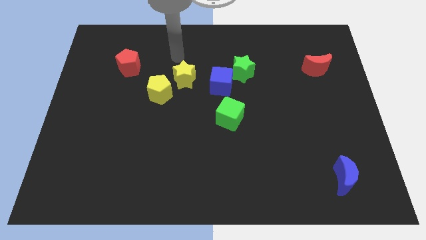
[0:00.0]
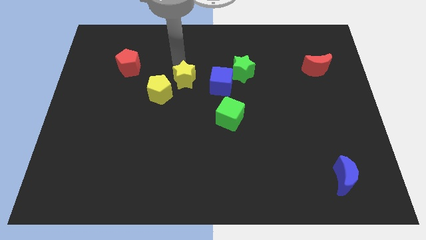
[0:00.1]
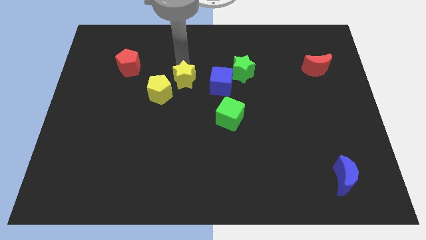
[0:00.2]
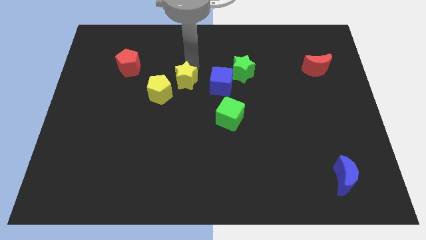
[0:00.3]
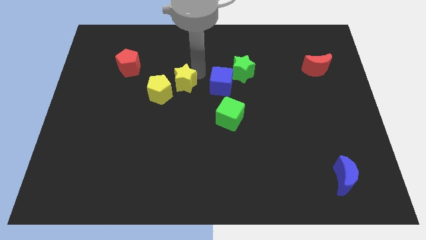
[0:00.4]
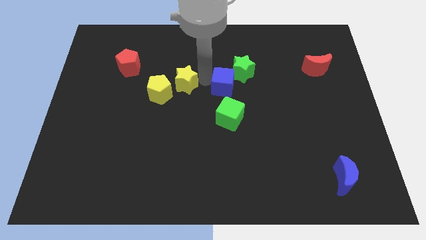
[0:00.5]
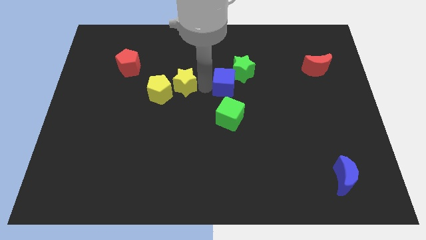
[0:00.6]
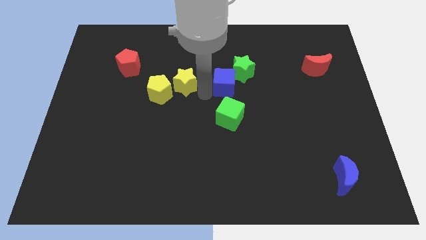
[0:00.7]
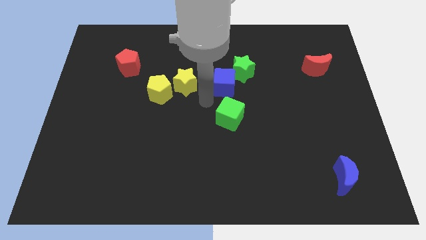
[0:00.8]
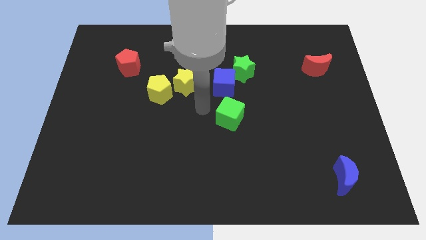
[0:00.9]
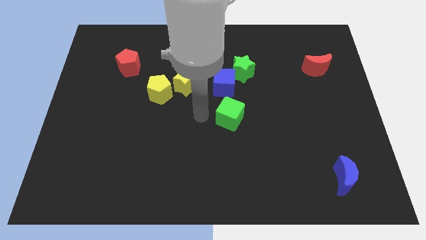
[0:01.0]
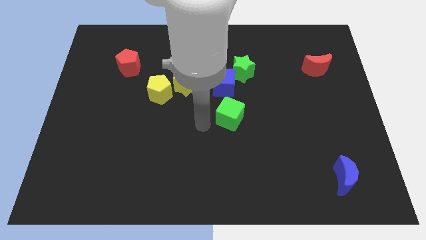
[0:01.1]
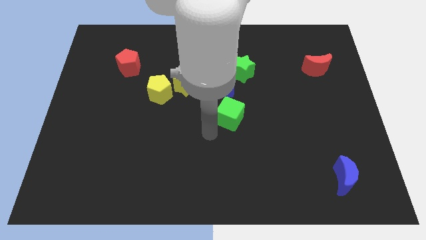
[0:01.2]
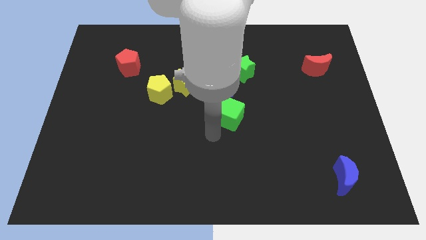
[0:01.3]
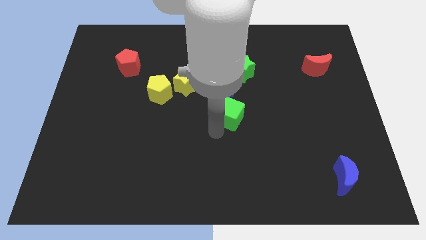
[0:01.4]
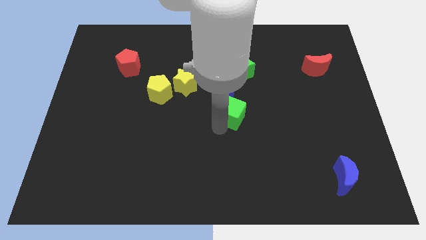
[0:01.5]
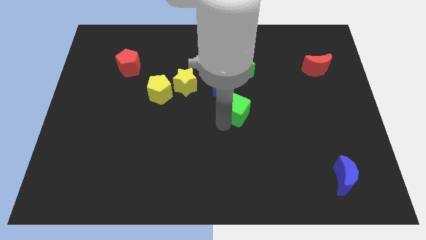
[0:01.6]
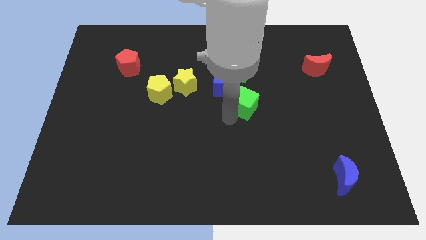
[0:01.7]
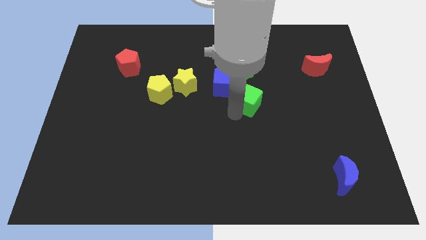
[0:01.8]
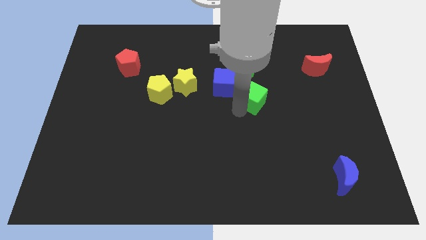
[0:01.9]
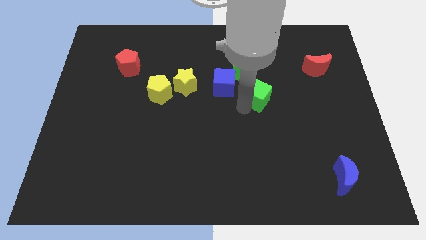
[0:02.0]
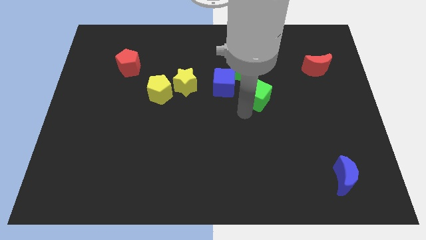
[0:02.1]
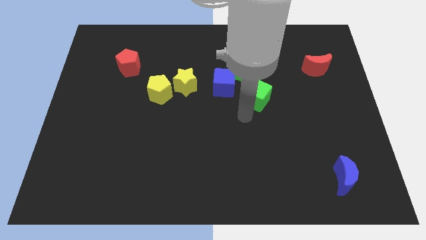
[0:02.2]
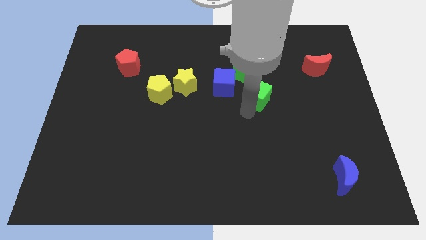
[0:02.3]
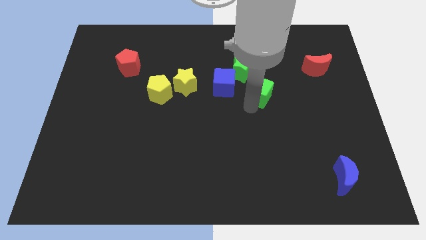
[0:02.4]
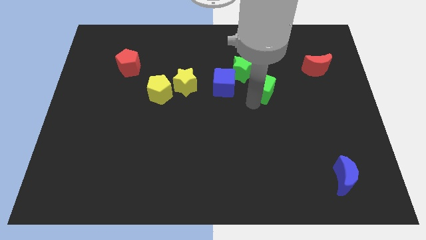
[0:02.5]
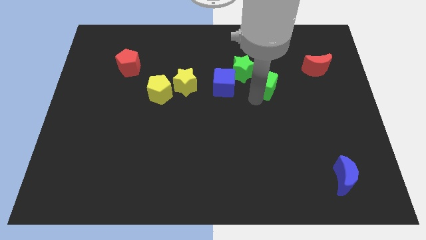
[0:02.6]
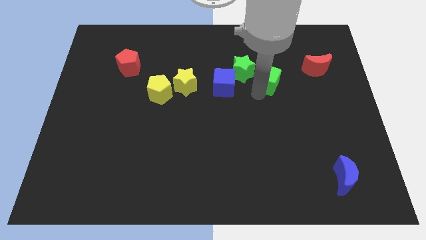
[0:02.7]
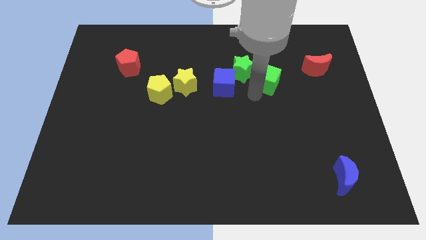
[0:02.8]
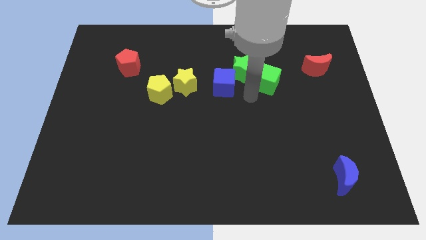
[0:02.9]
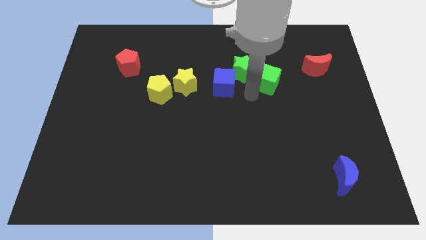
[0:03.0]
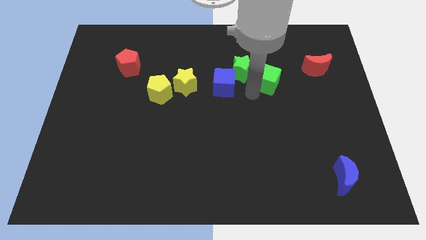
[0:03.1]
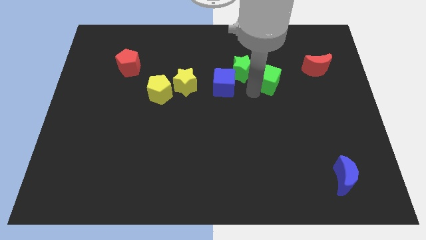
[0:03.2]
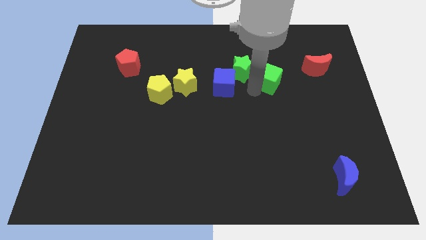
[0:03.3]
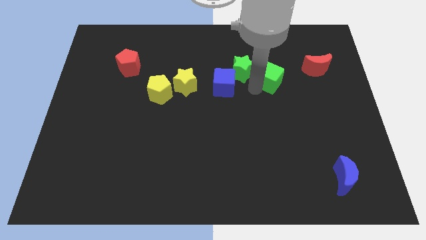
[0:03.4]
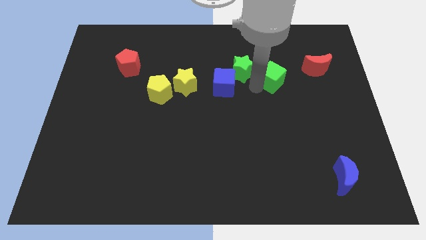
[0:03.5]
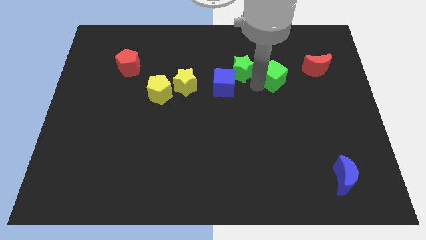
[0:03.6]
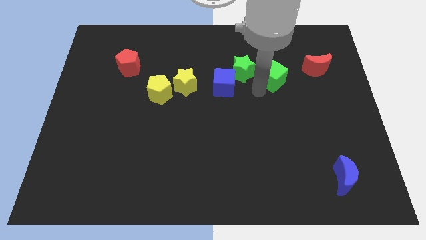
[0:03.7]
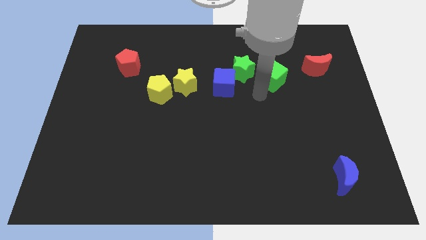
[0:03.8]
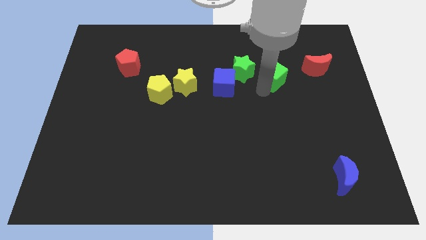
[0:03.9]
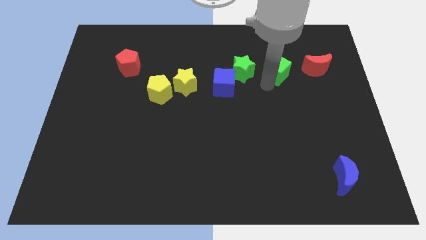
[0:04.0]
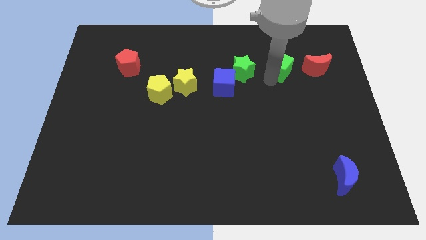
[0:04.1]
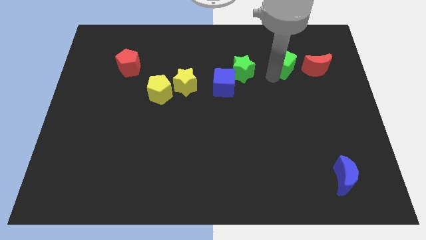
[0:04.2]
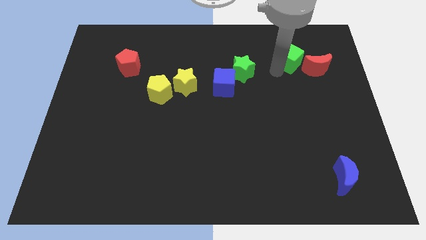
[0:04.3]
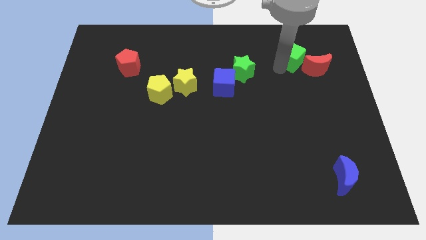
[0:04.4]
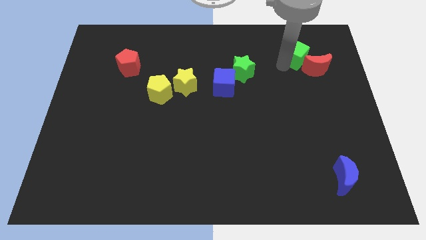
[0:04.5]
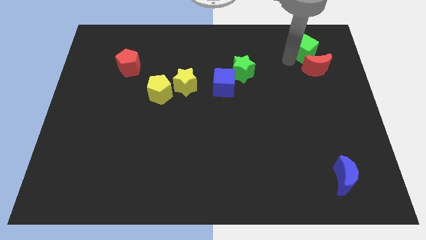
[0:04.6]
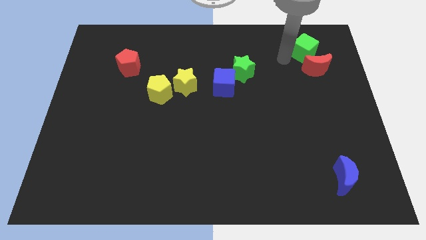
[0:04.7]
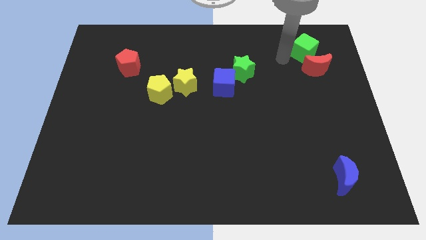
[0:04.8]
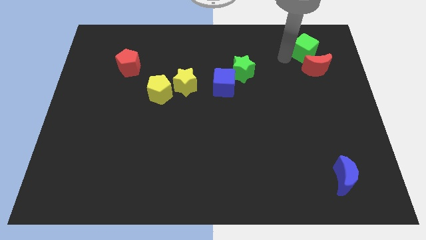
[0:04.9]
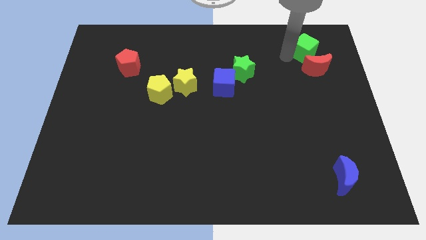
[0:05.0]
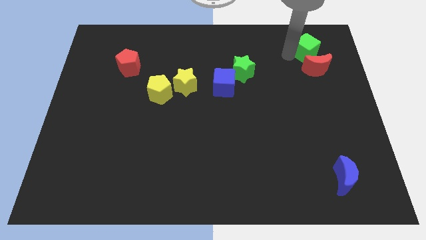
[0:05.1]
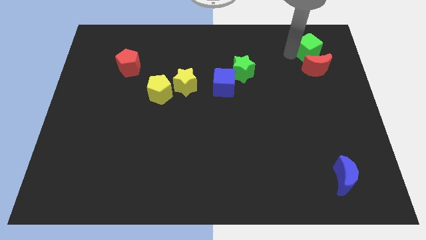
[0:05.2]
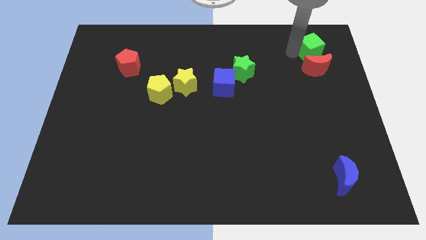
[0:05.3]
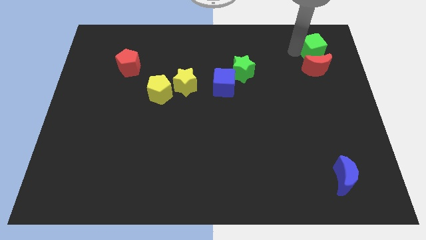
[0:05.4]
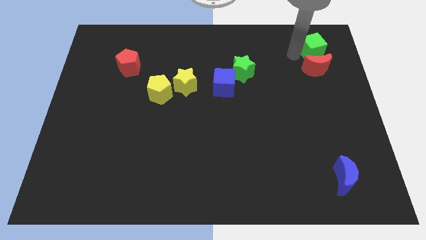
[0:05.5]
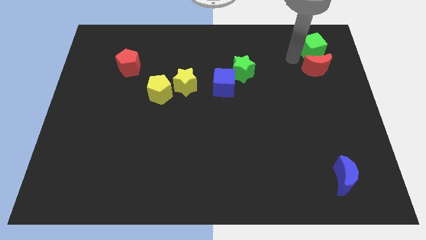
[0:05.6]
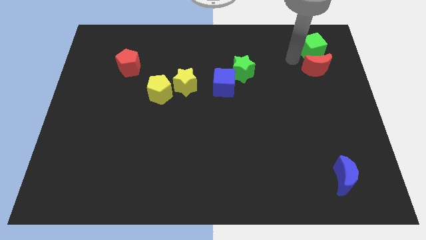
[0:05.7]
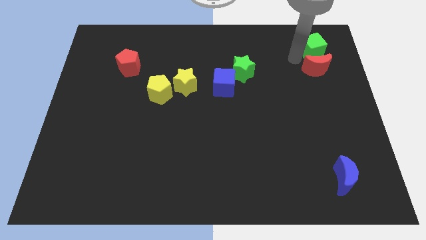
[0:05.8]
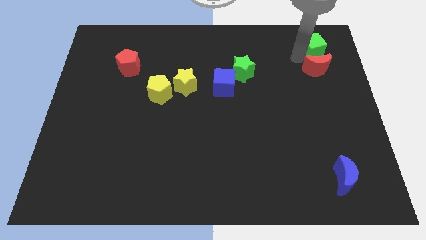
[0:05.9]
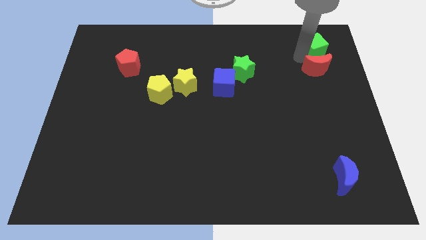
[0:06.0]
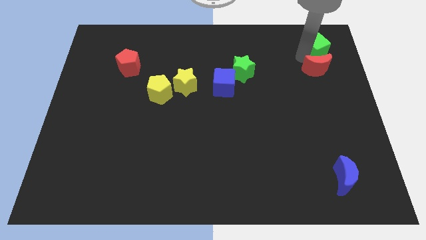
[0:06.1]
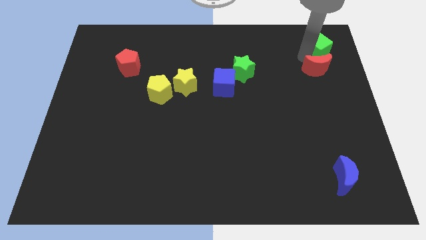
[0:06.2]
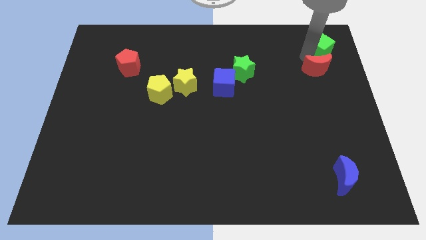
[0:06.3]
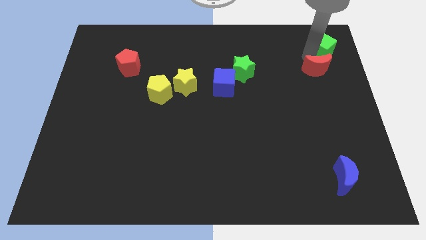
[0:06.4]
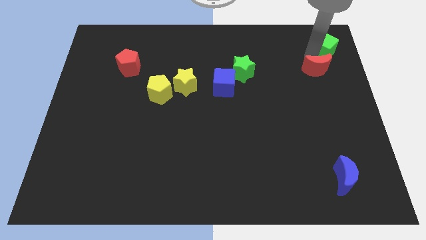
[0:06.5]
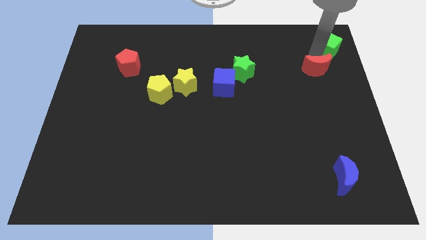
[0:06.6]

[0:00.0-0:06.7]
move the green cube to the top right corner
